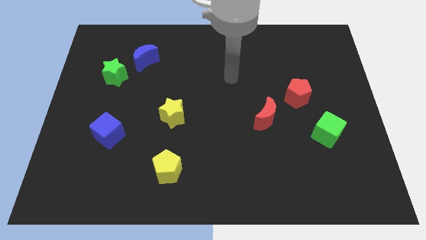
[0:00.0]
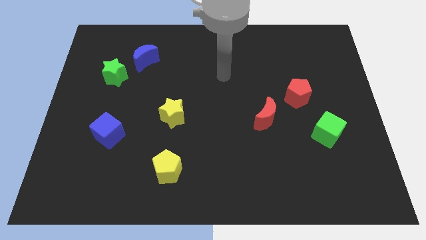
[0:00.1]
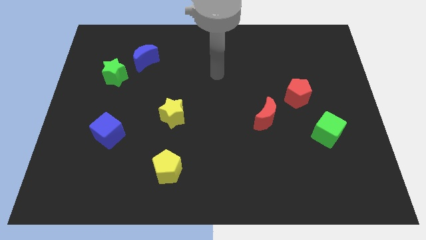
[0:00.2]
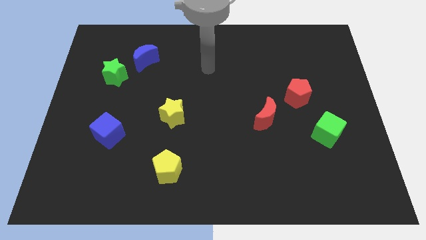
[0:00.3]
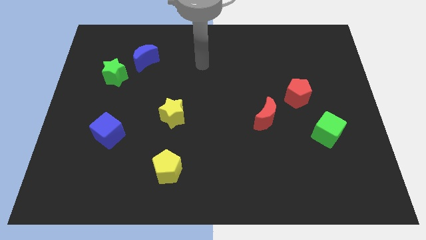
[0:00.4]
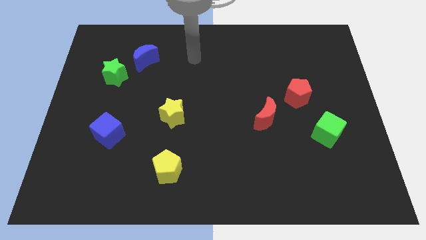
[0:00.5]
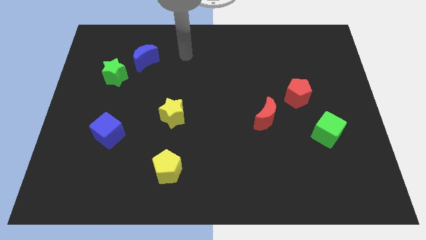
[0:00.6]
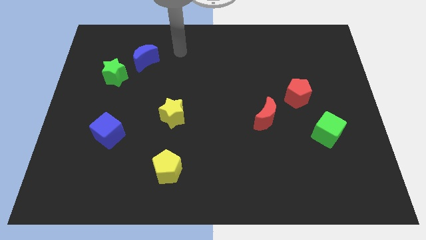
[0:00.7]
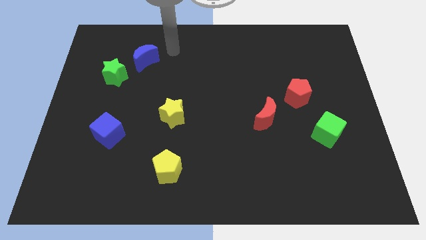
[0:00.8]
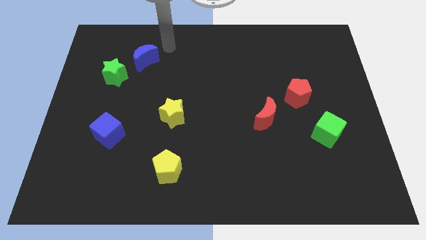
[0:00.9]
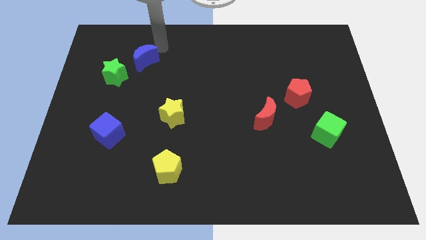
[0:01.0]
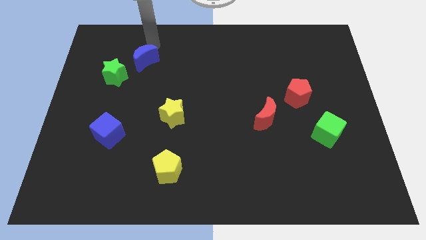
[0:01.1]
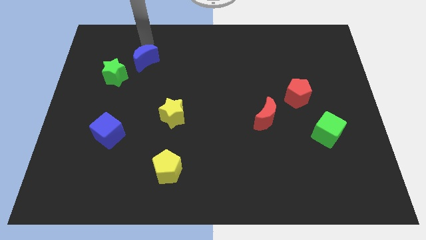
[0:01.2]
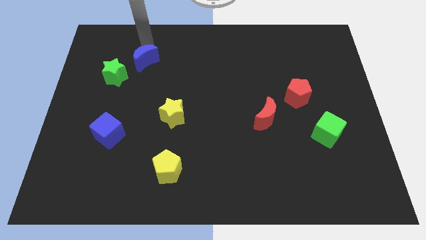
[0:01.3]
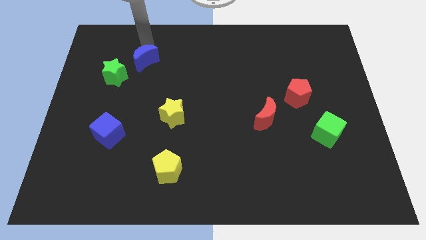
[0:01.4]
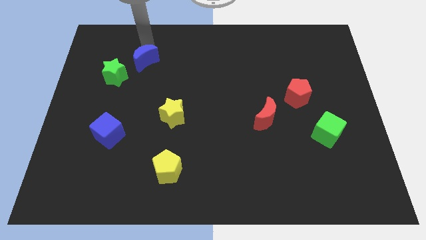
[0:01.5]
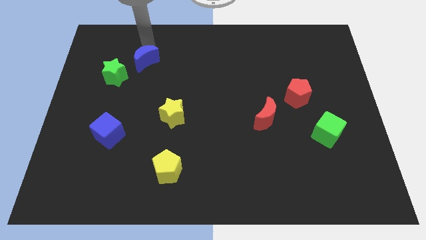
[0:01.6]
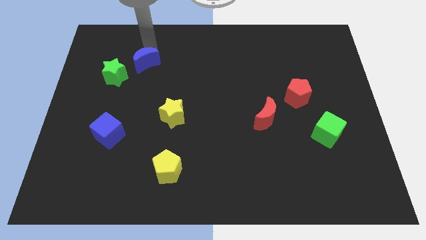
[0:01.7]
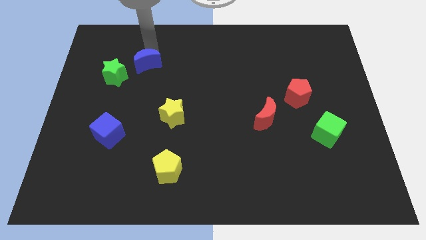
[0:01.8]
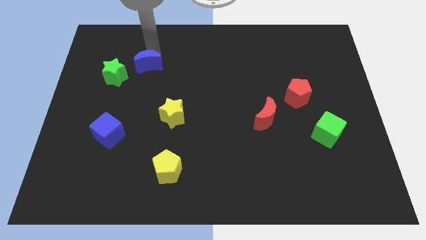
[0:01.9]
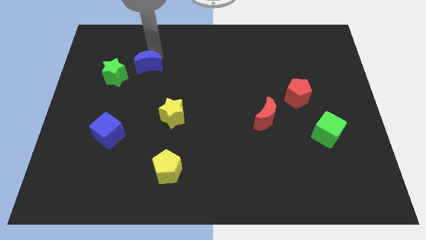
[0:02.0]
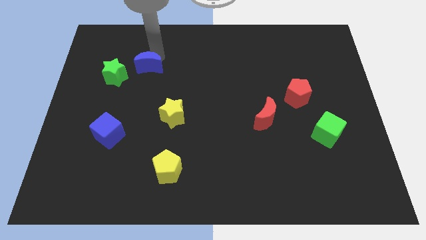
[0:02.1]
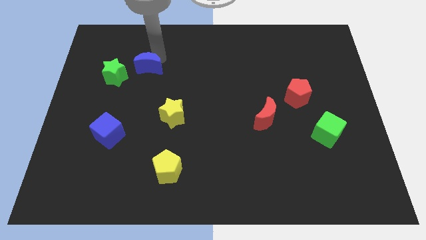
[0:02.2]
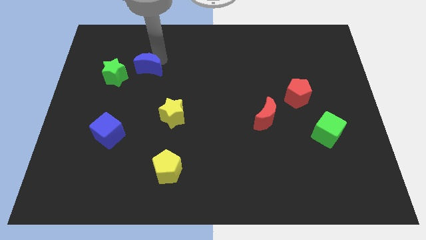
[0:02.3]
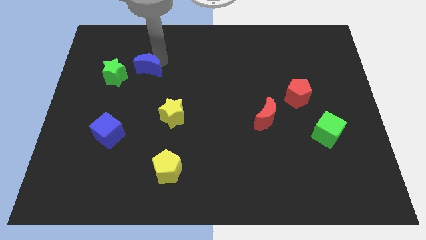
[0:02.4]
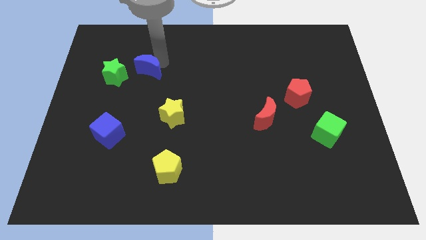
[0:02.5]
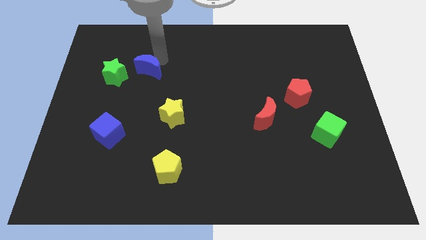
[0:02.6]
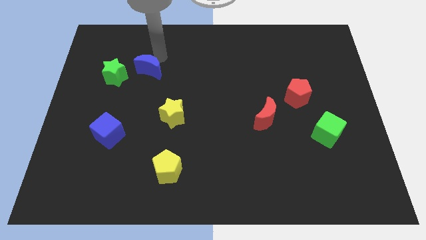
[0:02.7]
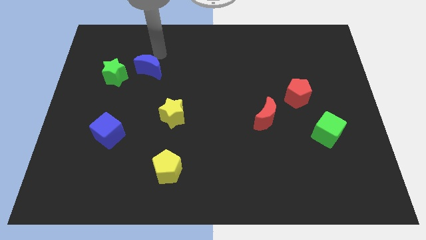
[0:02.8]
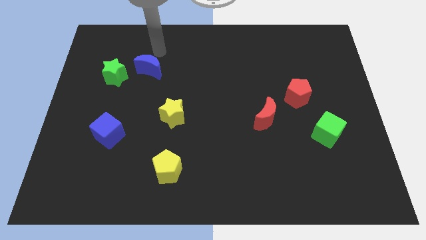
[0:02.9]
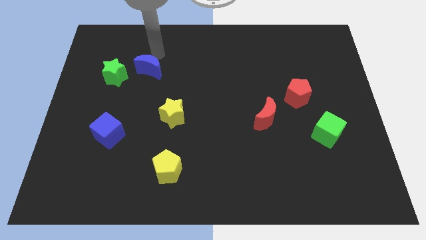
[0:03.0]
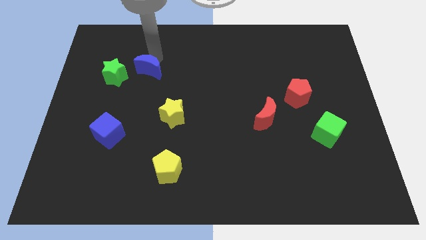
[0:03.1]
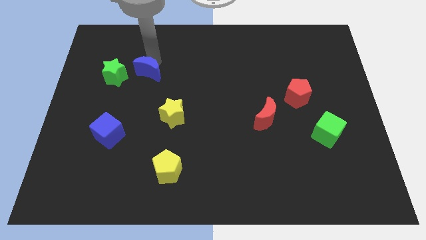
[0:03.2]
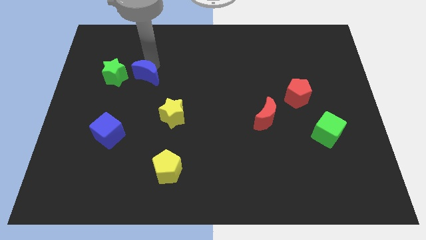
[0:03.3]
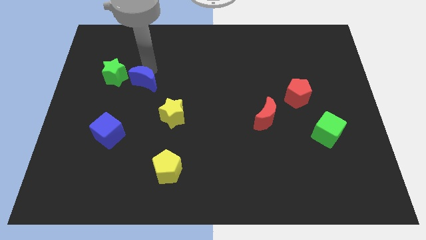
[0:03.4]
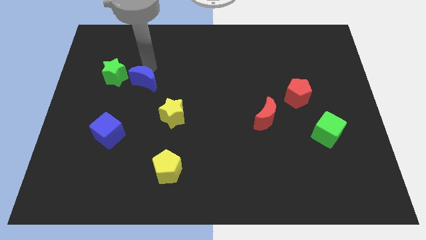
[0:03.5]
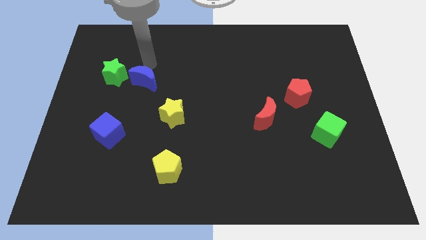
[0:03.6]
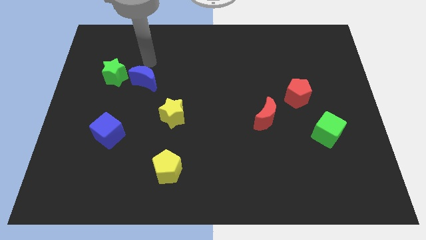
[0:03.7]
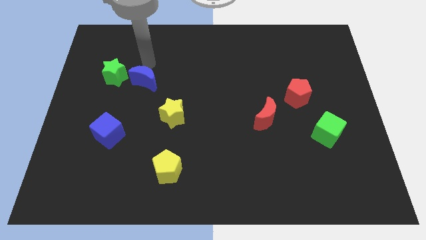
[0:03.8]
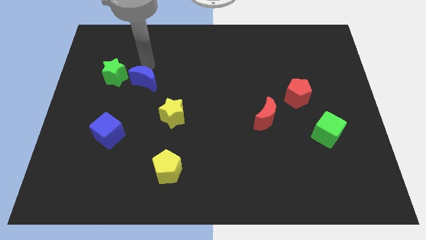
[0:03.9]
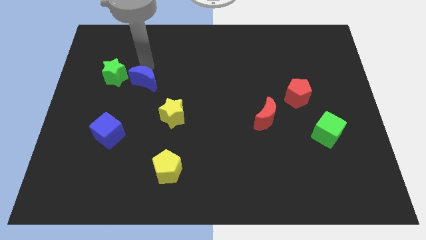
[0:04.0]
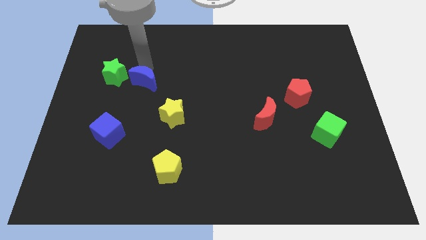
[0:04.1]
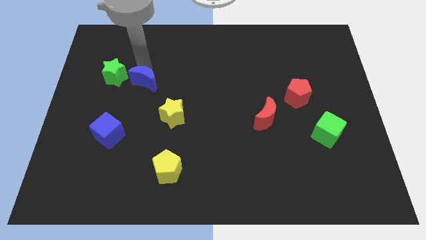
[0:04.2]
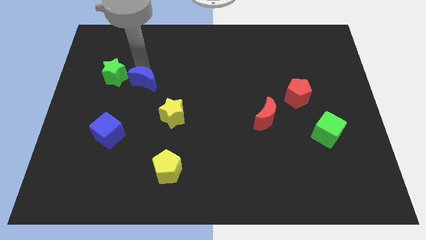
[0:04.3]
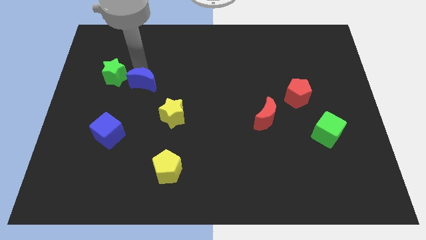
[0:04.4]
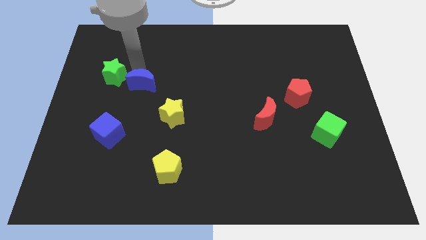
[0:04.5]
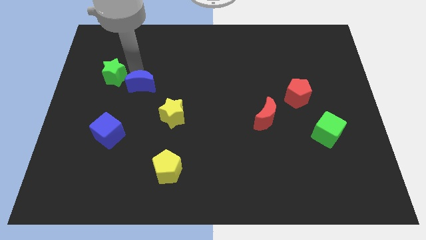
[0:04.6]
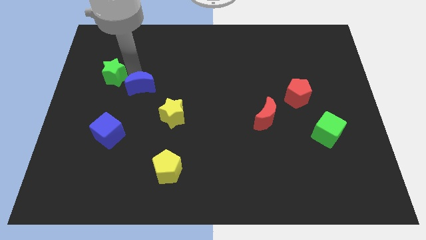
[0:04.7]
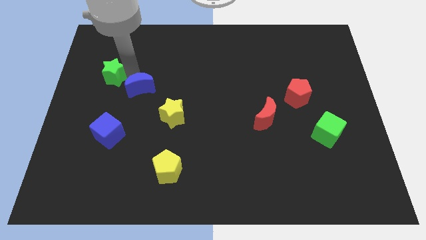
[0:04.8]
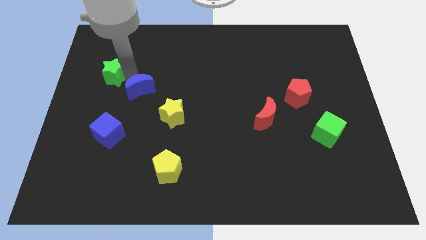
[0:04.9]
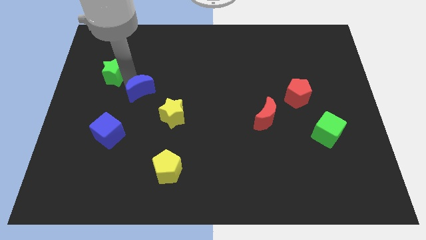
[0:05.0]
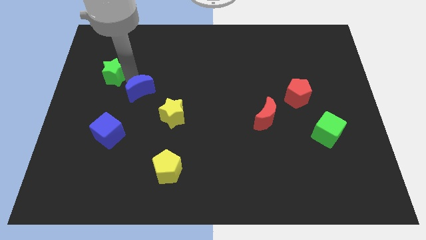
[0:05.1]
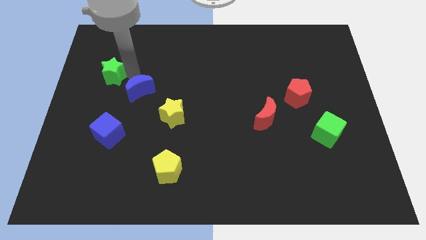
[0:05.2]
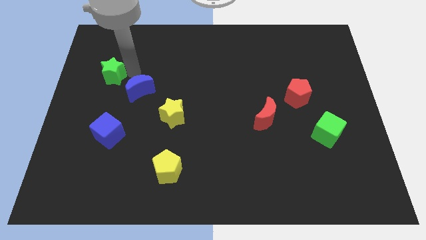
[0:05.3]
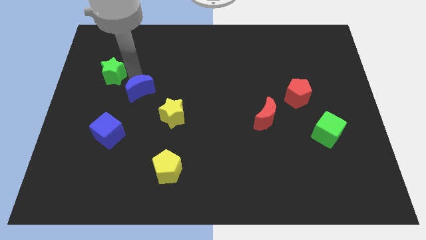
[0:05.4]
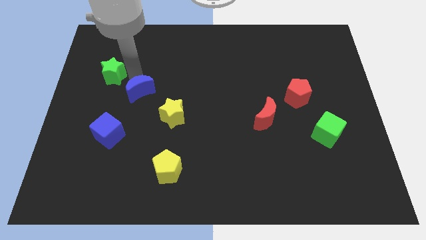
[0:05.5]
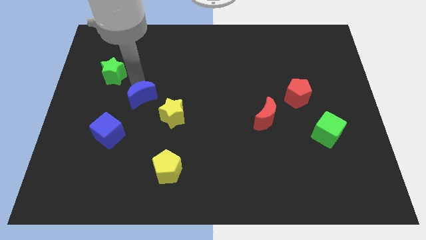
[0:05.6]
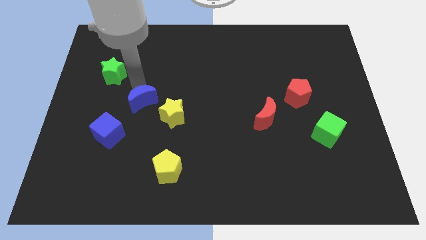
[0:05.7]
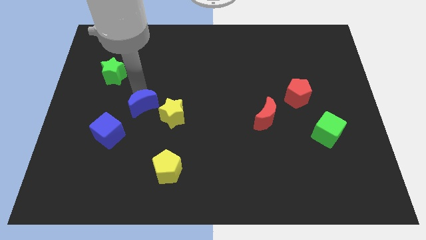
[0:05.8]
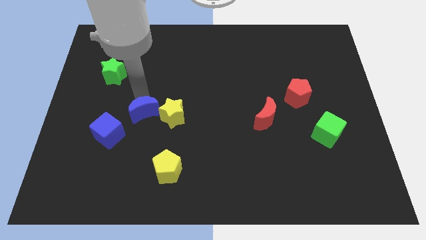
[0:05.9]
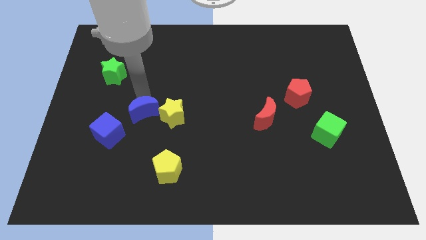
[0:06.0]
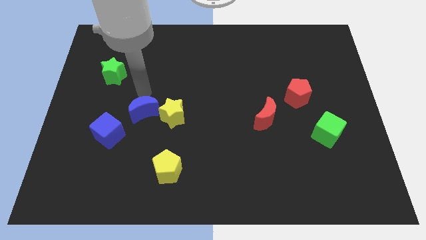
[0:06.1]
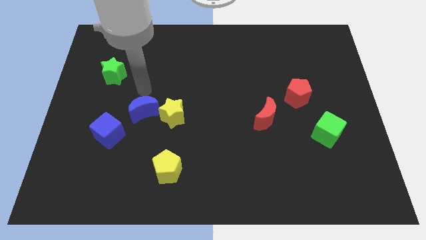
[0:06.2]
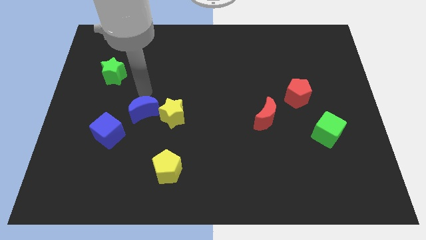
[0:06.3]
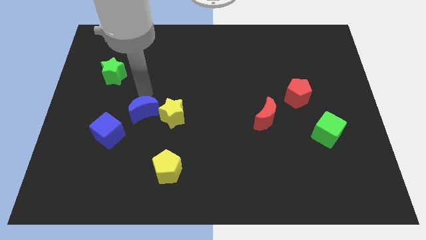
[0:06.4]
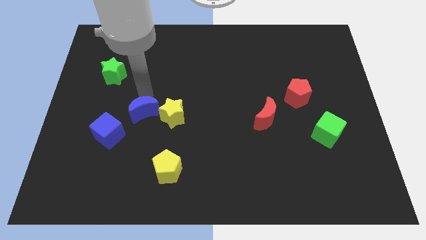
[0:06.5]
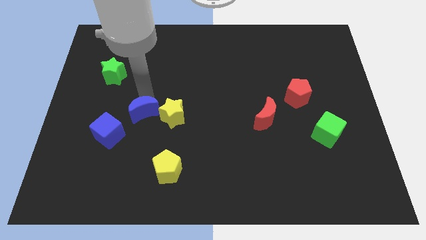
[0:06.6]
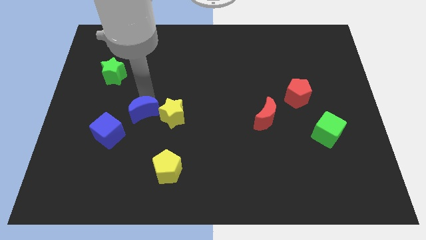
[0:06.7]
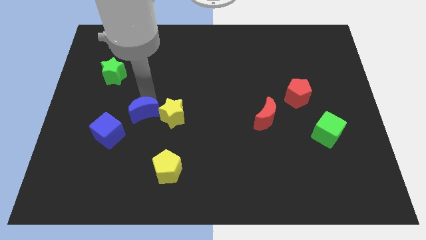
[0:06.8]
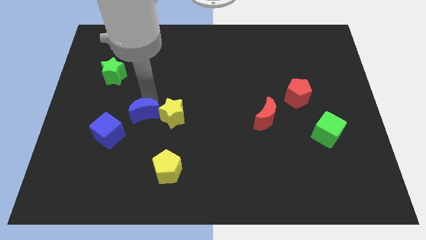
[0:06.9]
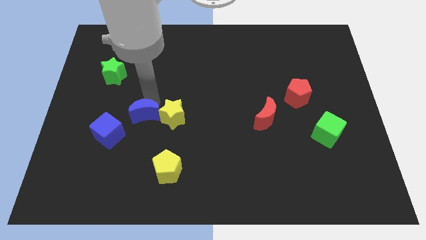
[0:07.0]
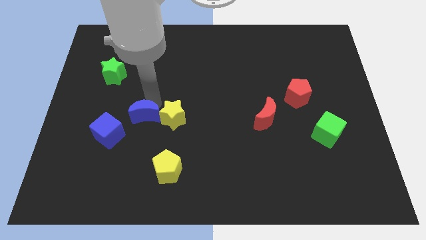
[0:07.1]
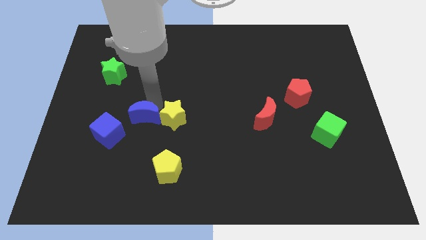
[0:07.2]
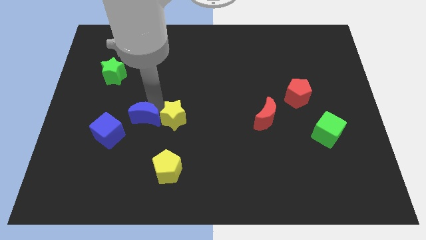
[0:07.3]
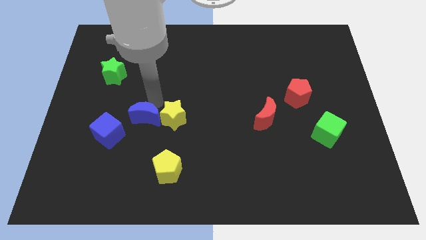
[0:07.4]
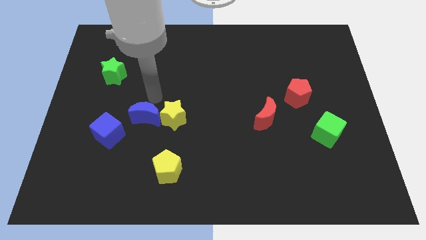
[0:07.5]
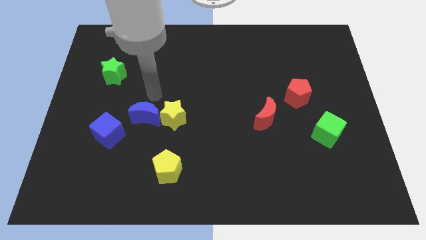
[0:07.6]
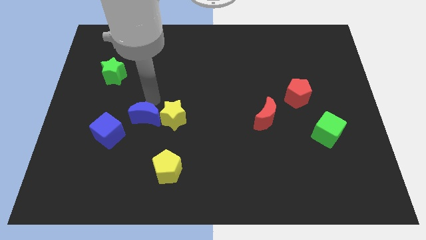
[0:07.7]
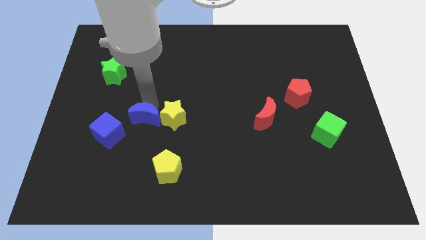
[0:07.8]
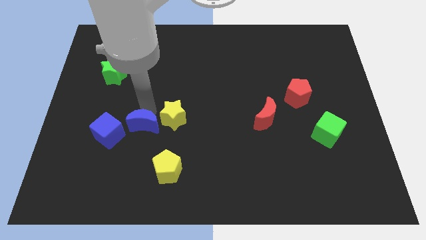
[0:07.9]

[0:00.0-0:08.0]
slide the blue moon downwards
